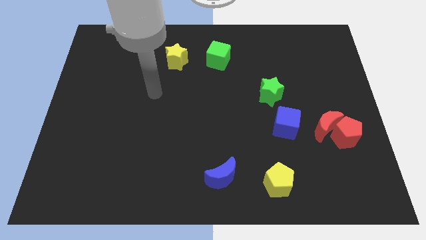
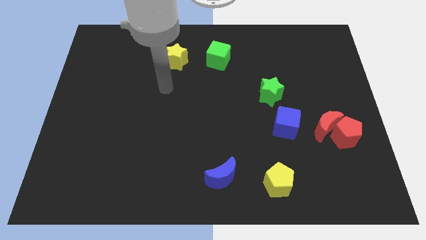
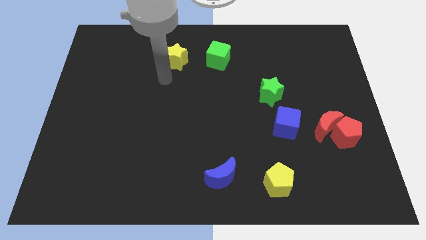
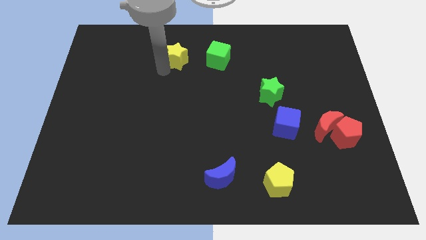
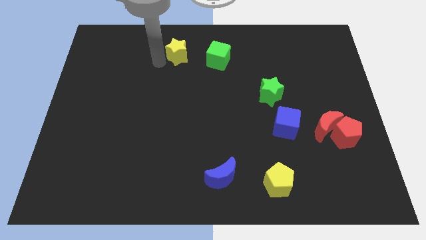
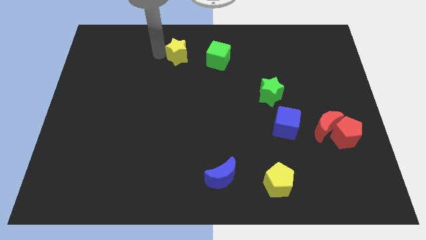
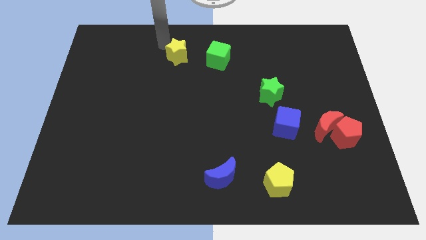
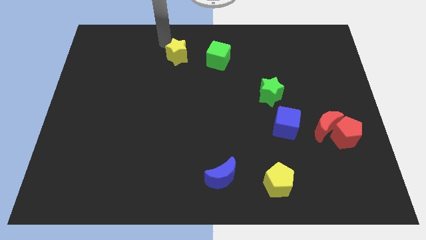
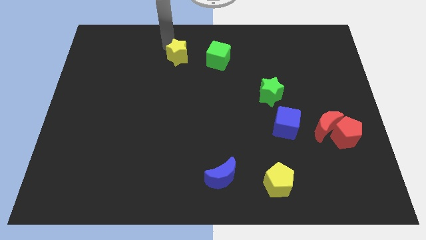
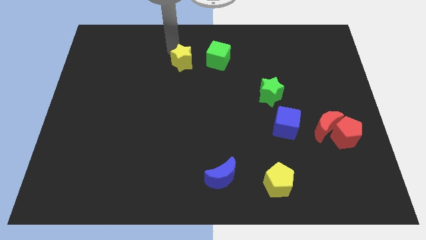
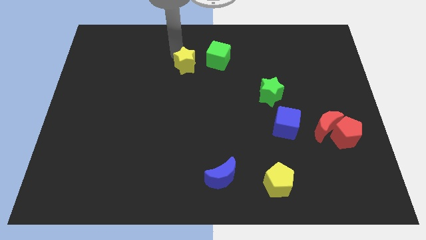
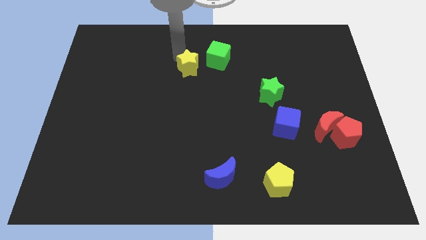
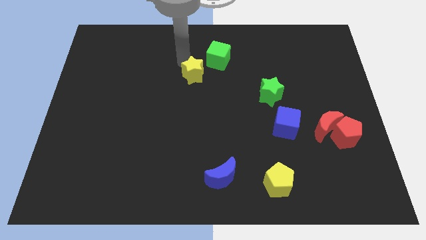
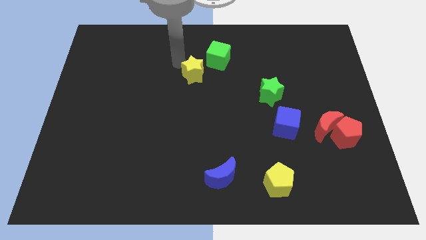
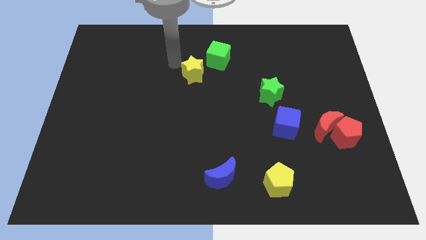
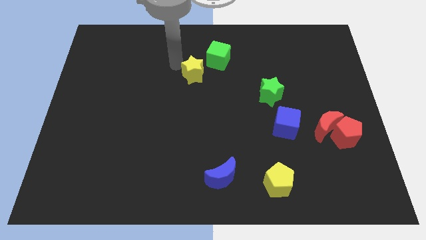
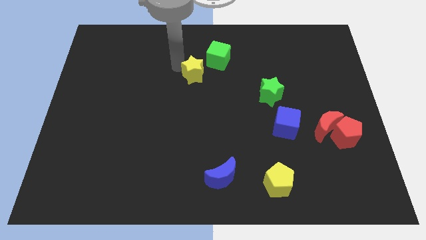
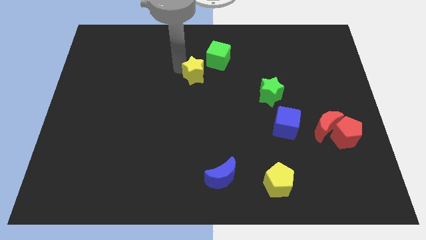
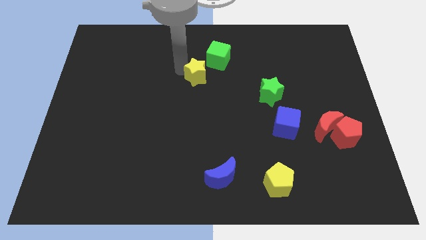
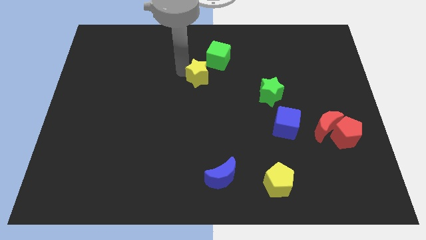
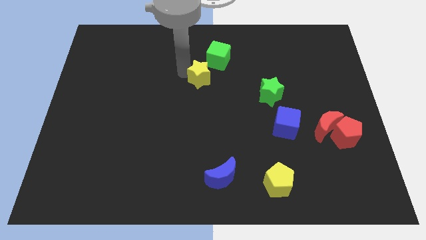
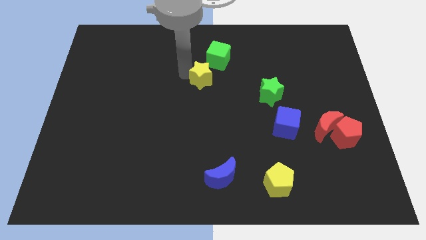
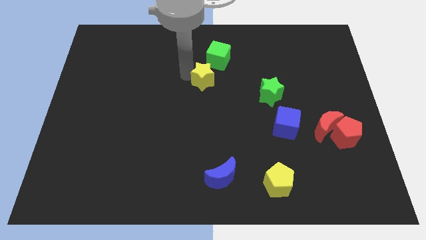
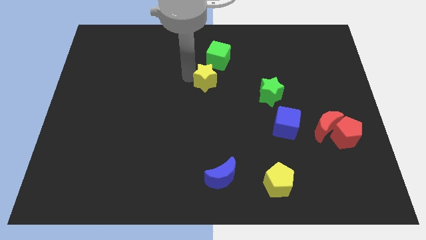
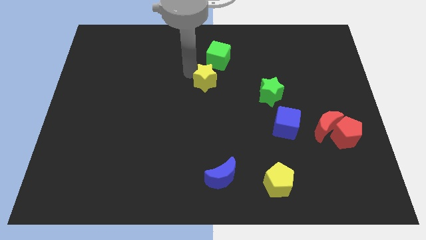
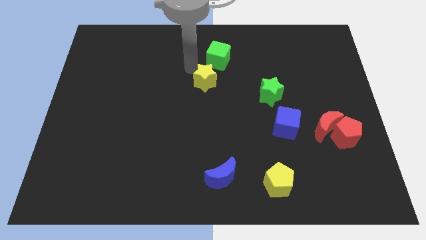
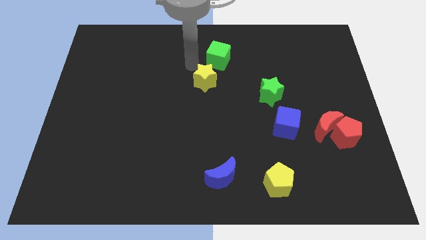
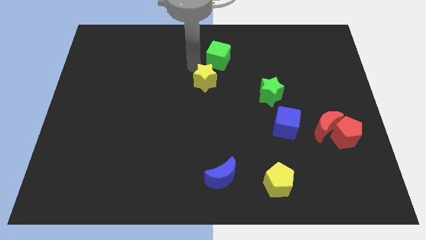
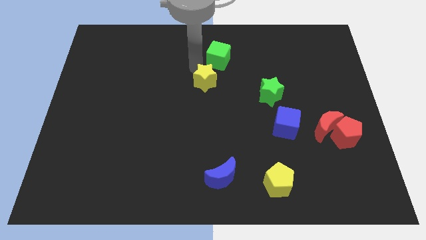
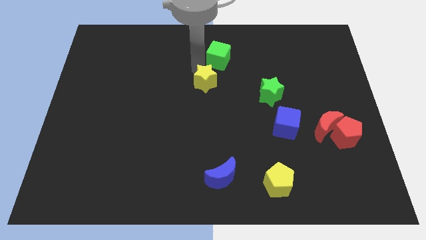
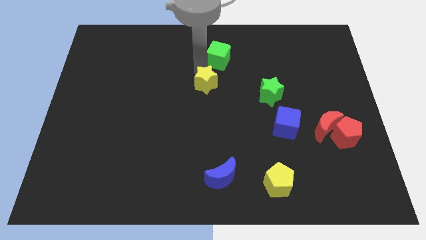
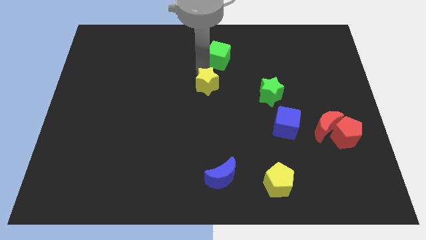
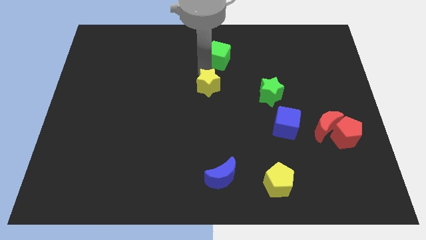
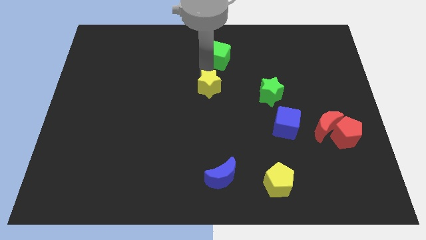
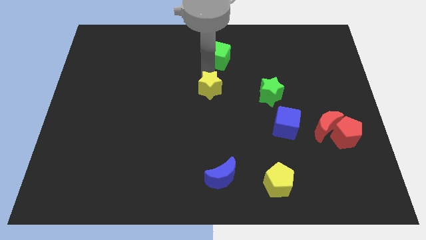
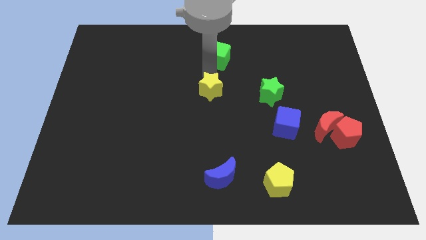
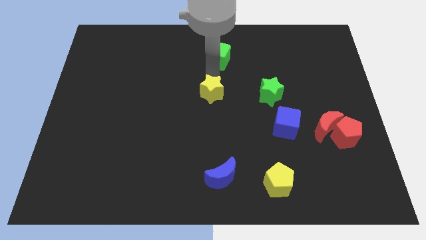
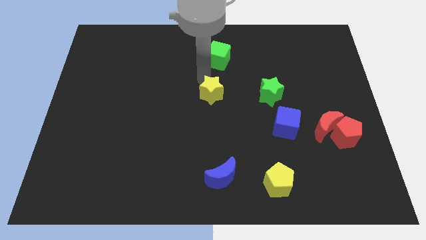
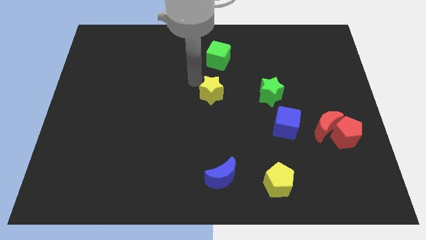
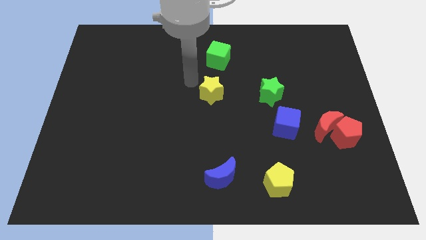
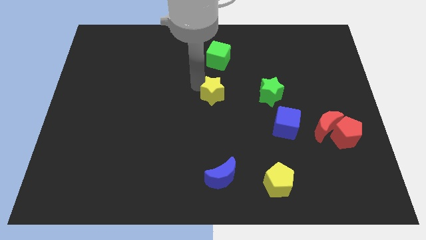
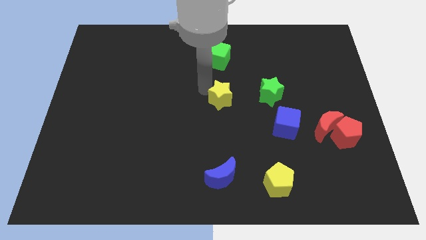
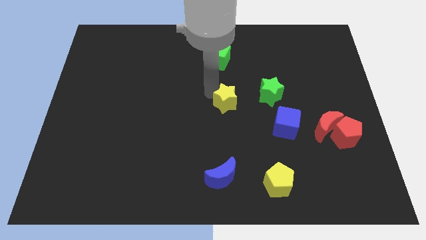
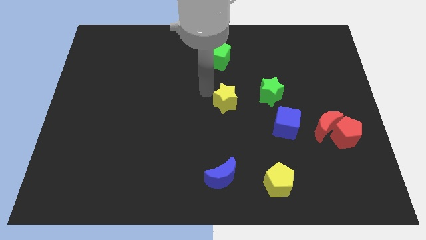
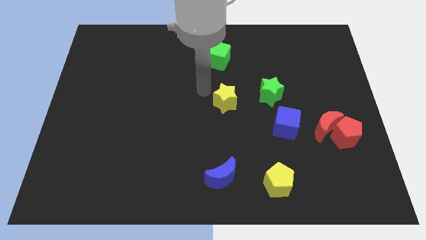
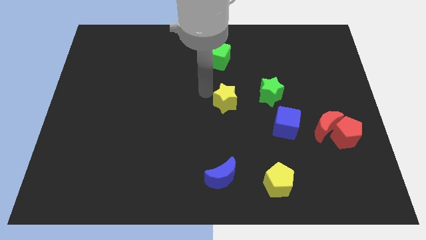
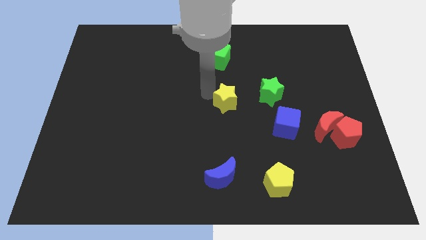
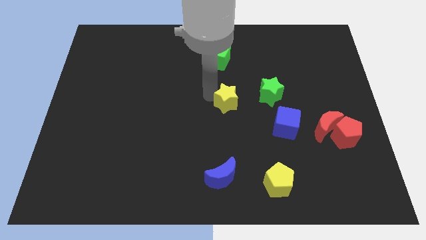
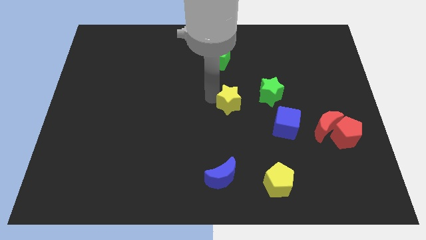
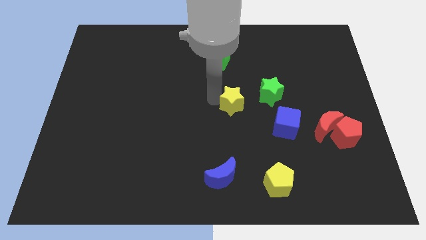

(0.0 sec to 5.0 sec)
move the yellow star diagonally down and to the left of the green star

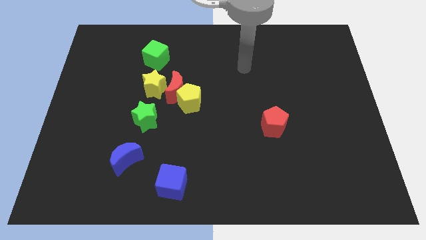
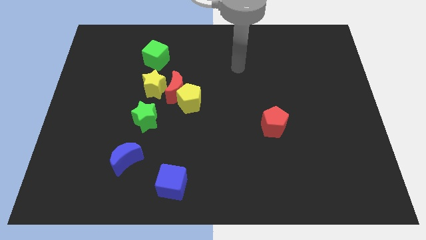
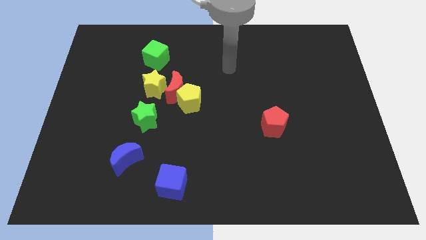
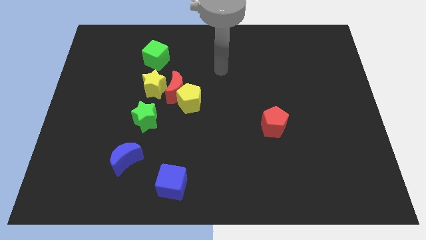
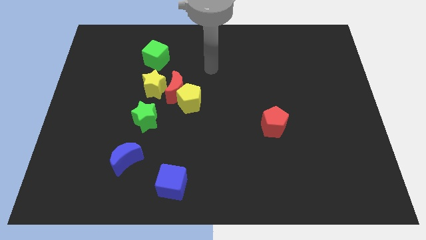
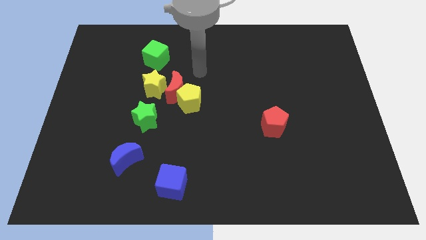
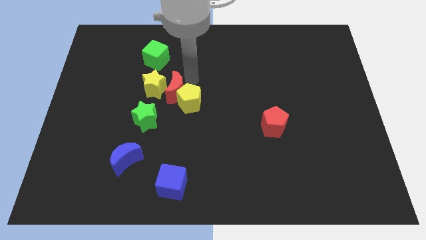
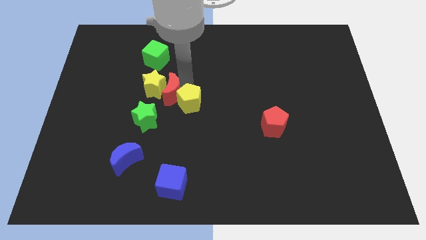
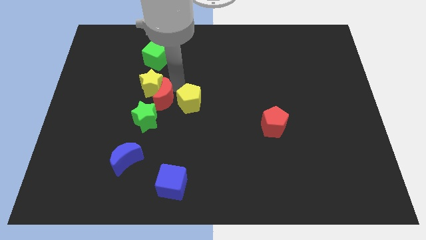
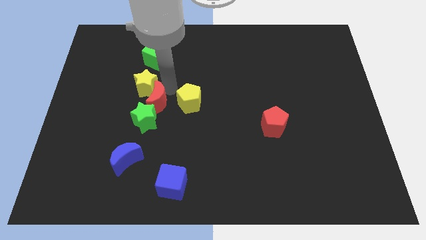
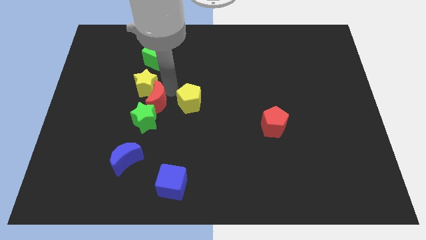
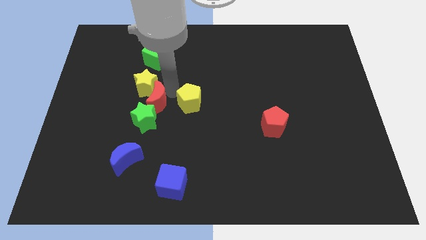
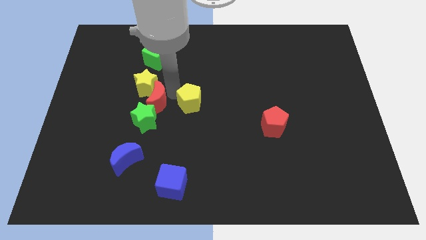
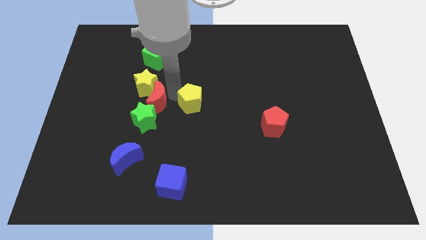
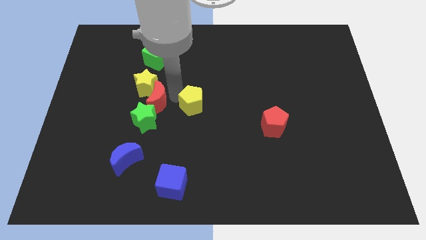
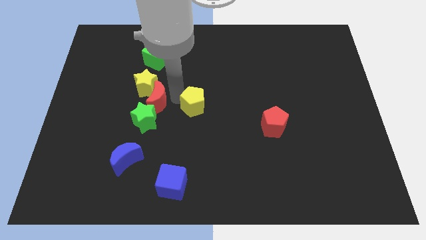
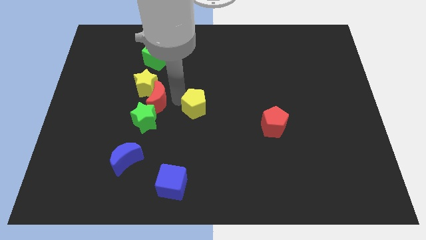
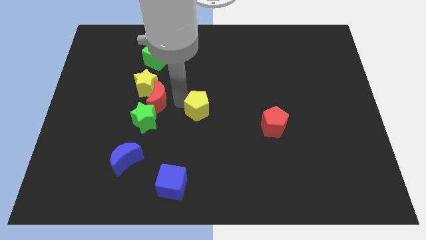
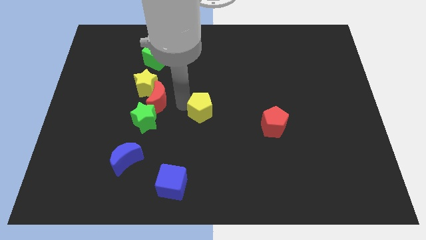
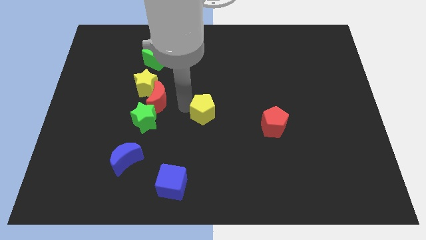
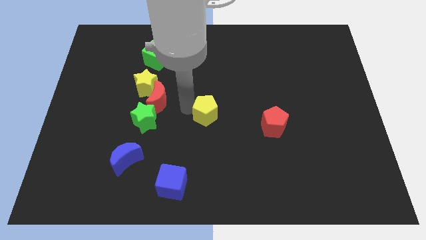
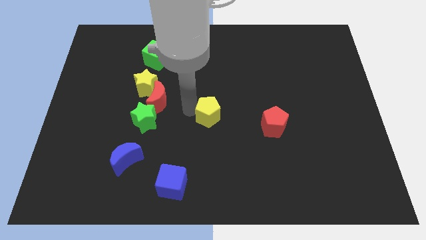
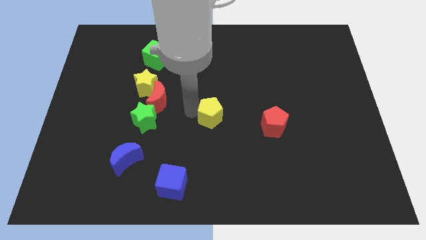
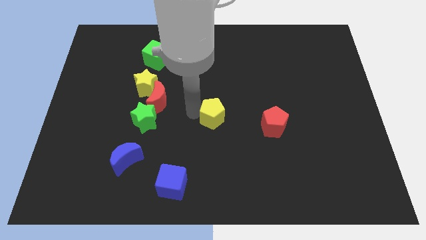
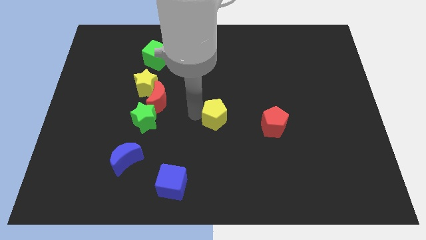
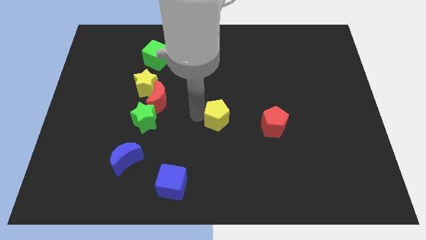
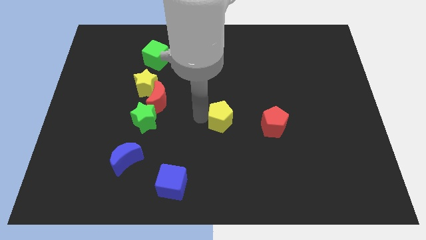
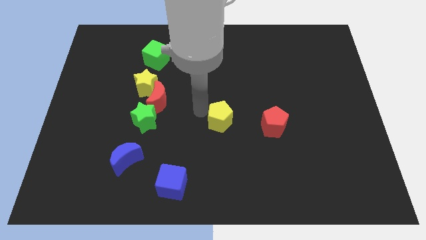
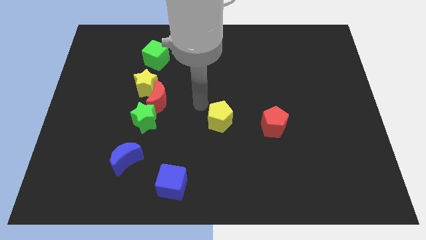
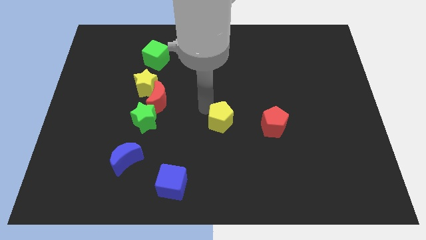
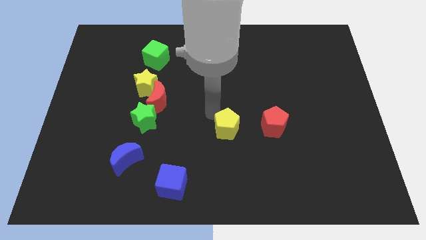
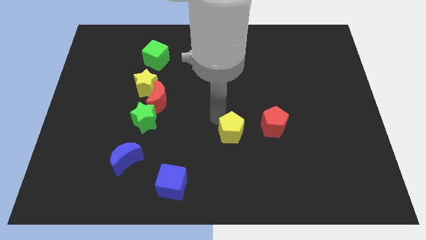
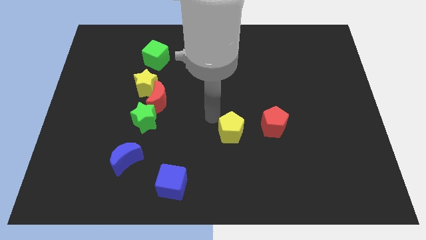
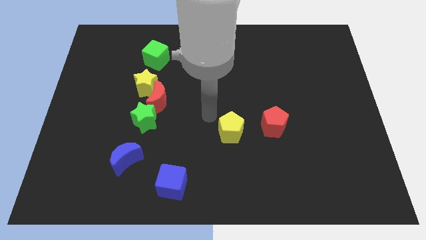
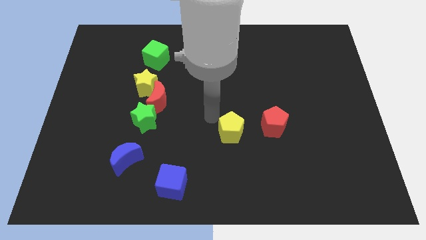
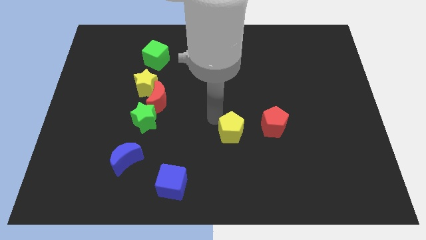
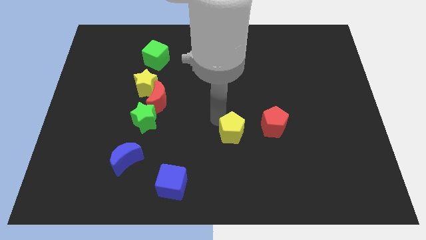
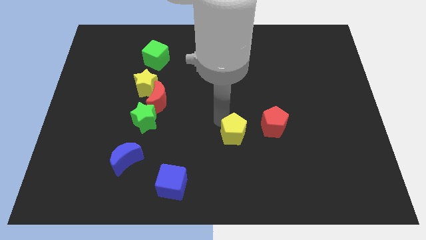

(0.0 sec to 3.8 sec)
move the yellow pentagon to the bottom left of the red pentagon
